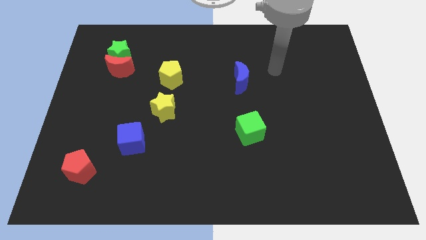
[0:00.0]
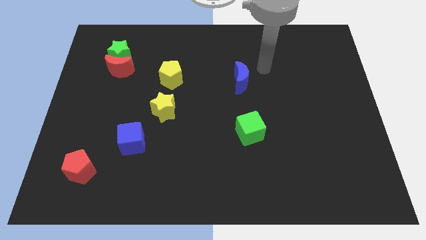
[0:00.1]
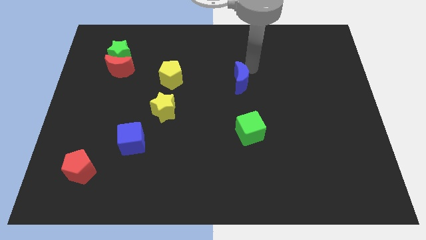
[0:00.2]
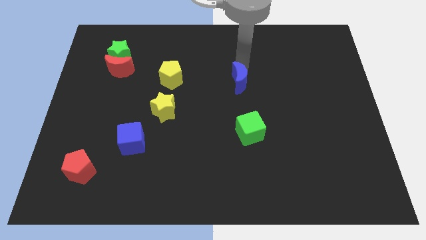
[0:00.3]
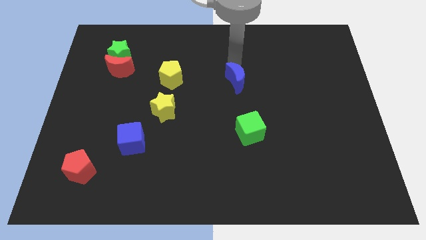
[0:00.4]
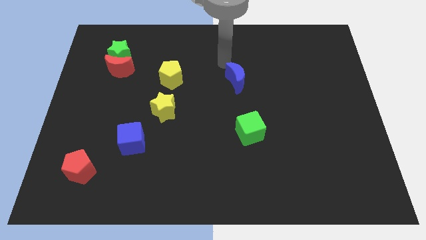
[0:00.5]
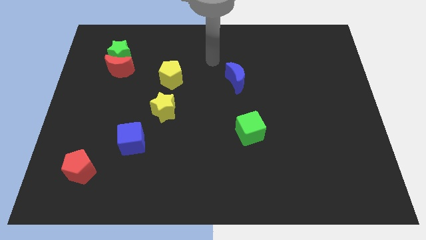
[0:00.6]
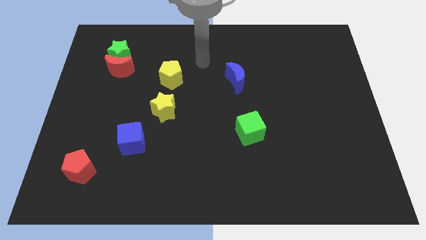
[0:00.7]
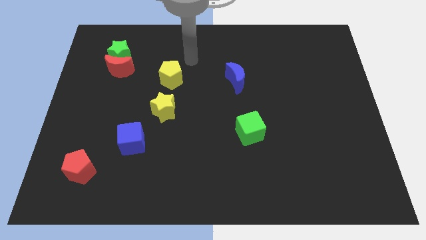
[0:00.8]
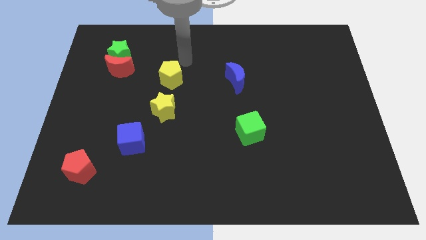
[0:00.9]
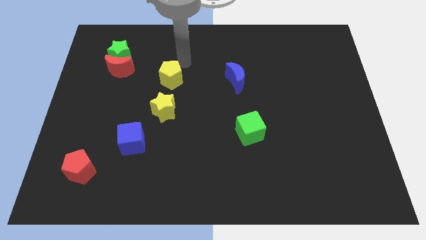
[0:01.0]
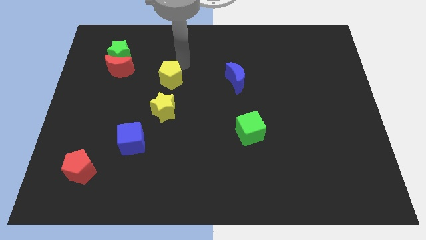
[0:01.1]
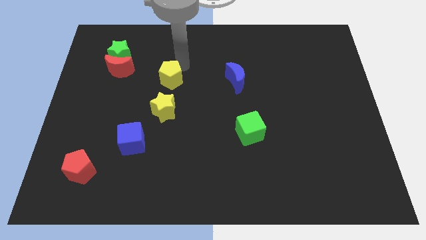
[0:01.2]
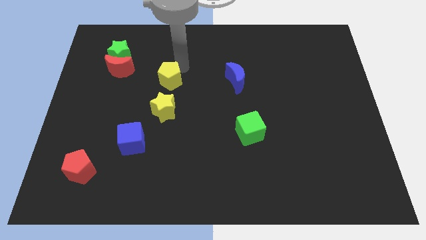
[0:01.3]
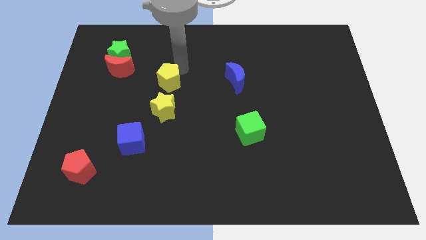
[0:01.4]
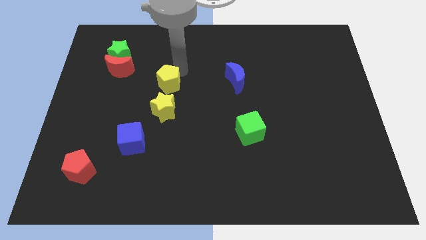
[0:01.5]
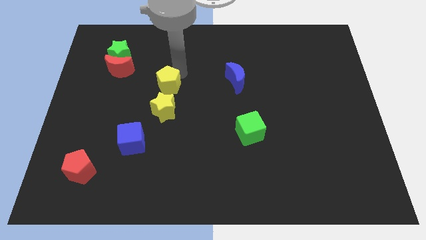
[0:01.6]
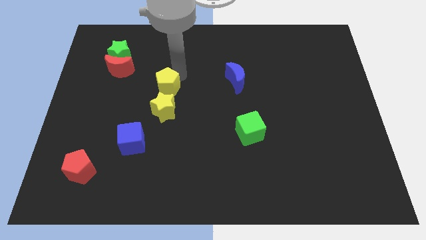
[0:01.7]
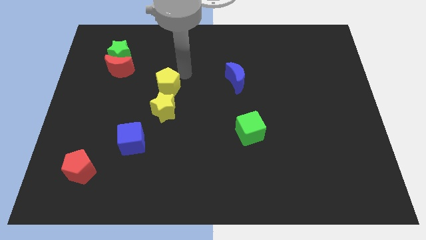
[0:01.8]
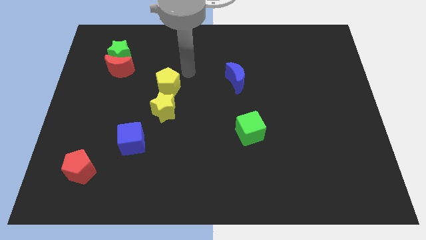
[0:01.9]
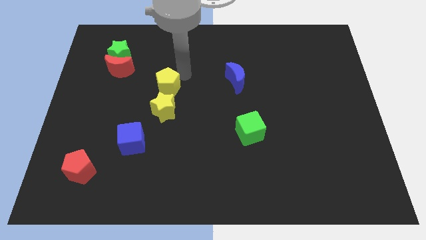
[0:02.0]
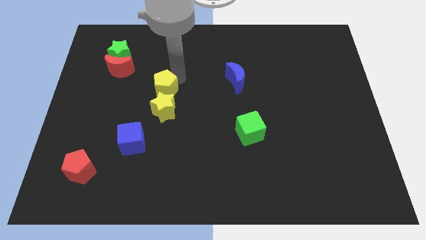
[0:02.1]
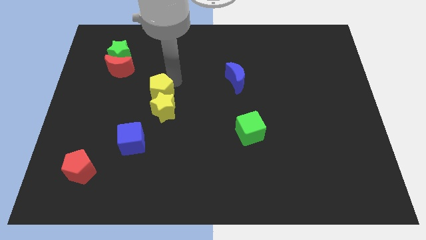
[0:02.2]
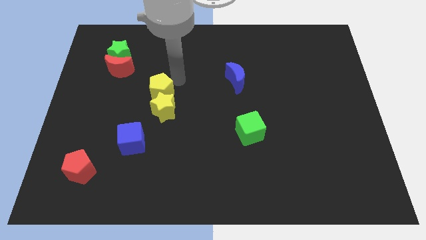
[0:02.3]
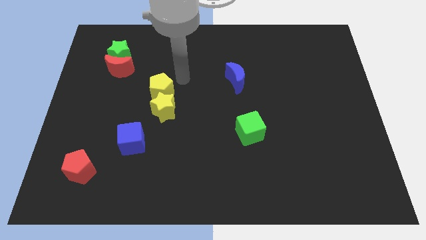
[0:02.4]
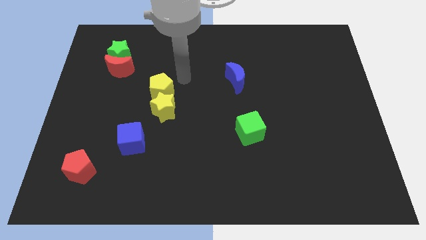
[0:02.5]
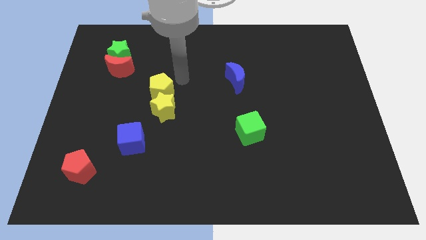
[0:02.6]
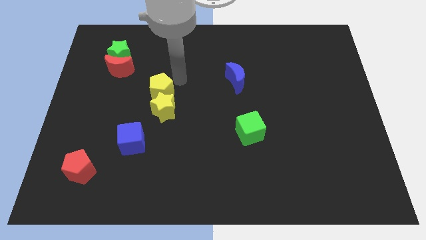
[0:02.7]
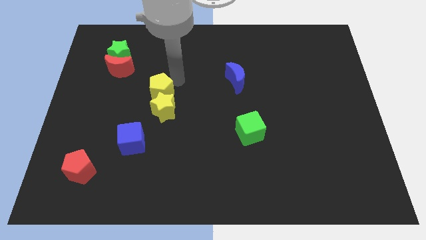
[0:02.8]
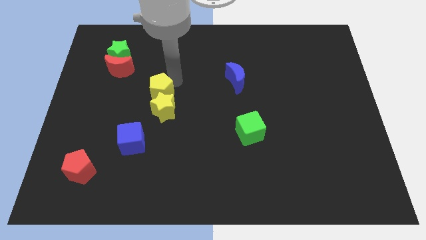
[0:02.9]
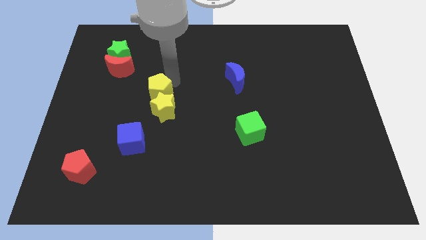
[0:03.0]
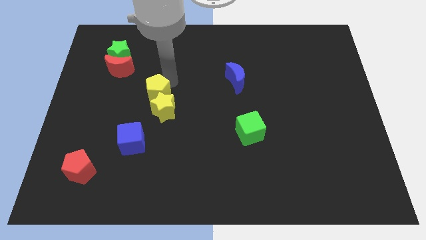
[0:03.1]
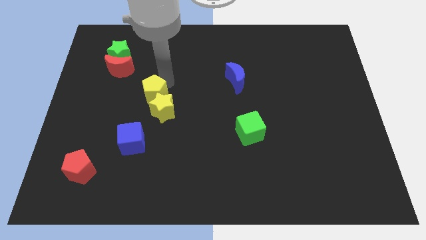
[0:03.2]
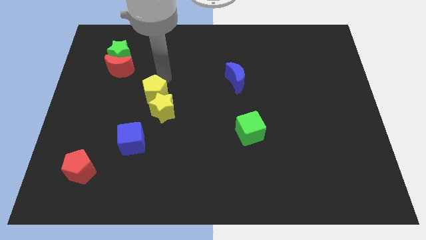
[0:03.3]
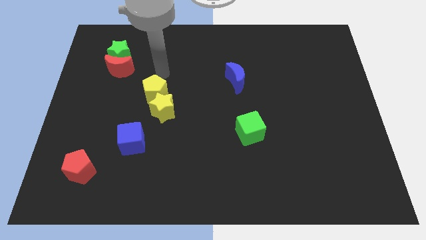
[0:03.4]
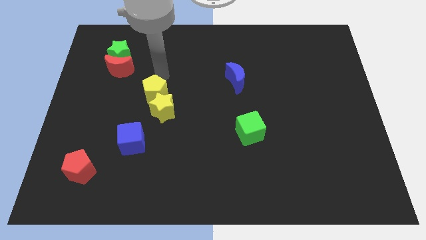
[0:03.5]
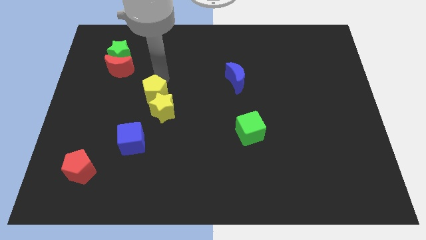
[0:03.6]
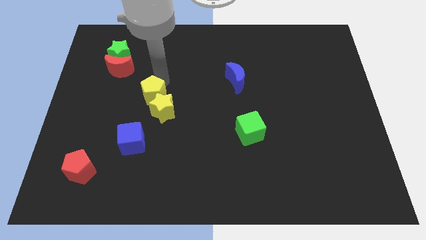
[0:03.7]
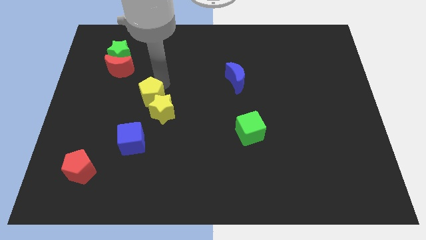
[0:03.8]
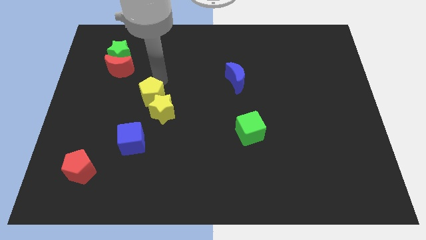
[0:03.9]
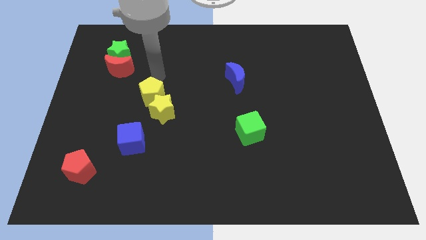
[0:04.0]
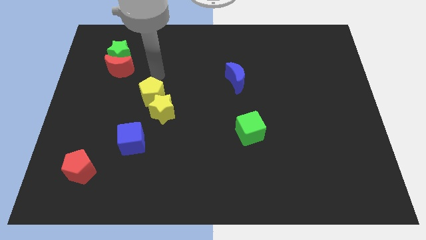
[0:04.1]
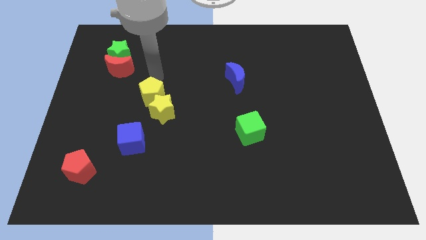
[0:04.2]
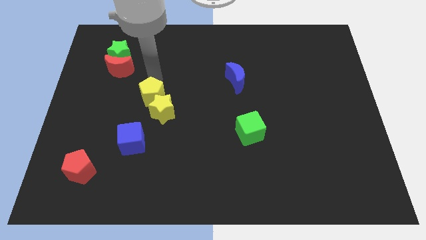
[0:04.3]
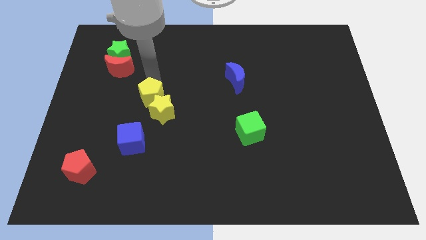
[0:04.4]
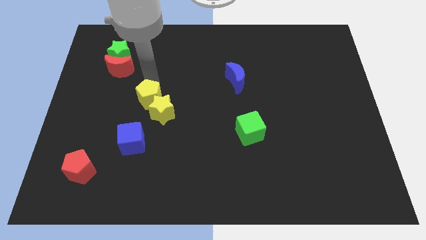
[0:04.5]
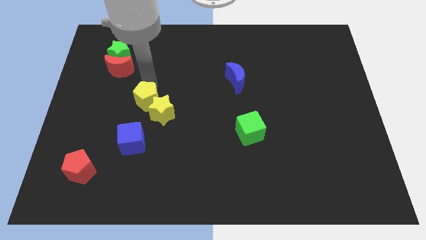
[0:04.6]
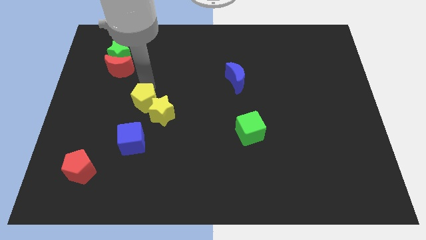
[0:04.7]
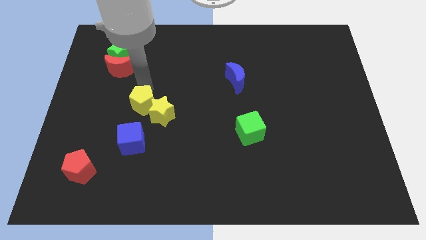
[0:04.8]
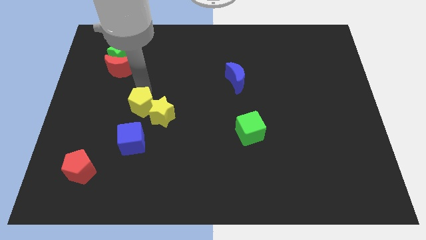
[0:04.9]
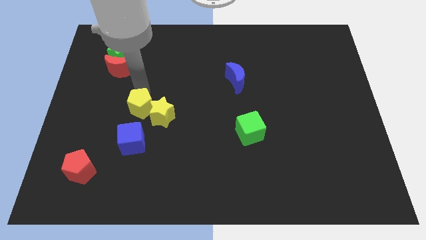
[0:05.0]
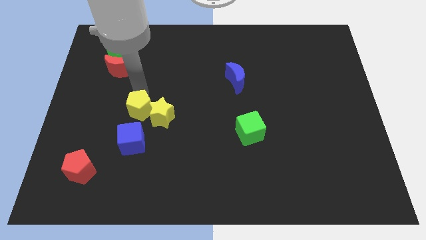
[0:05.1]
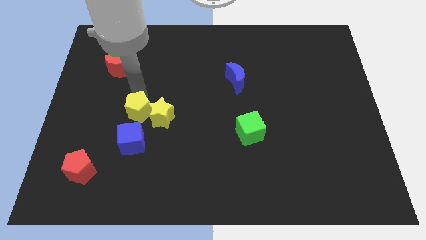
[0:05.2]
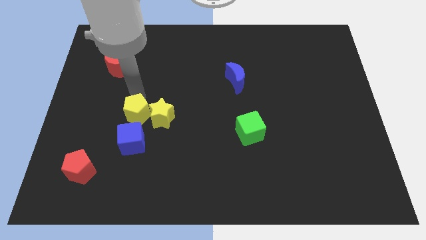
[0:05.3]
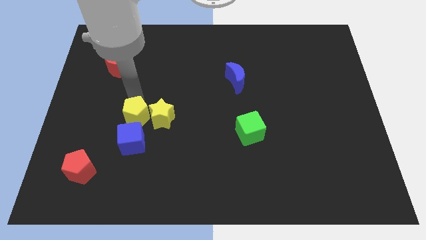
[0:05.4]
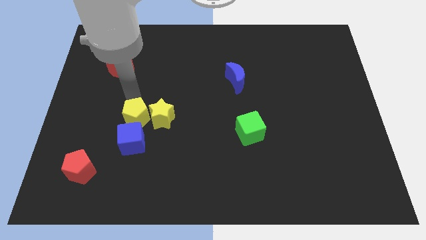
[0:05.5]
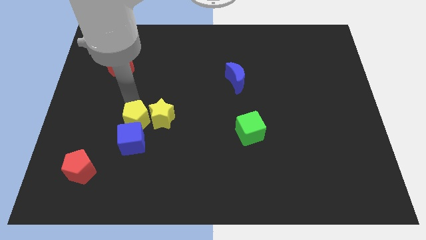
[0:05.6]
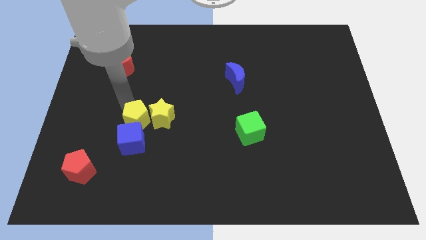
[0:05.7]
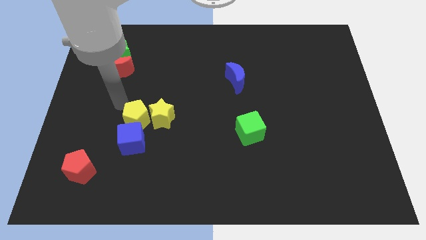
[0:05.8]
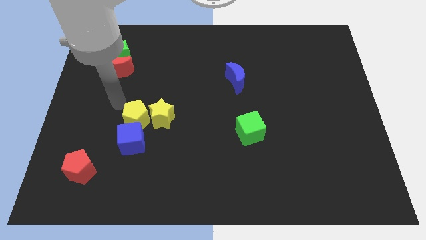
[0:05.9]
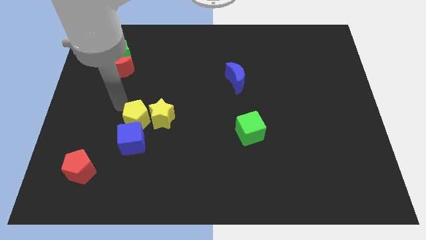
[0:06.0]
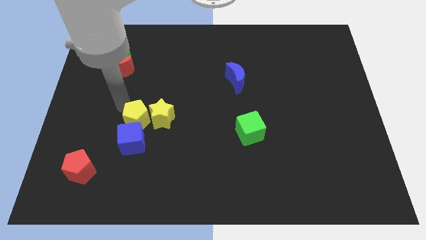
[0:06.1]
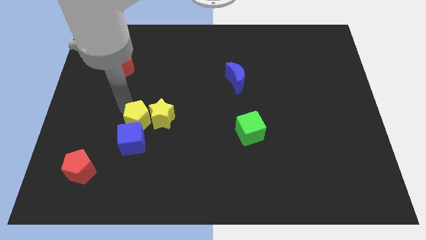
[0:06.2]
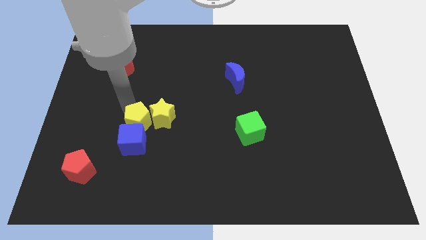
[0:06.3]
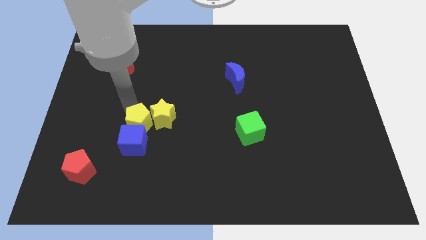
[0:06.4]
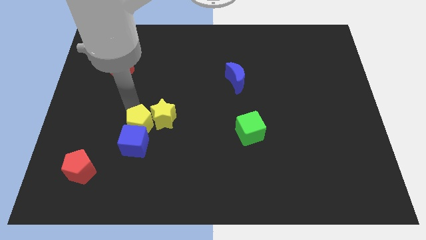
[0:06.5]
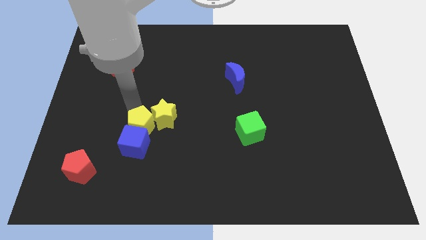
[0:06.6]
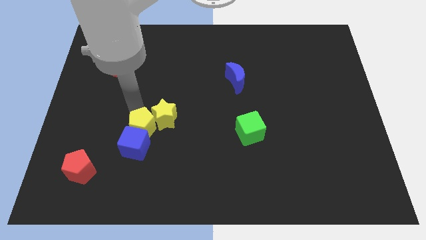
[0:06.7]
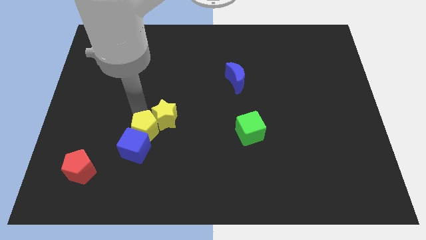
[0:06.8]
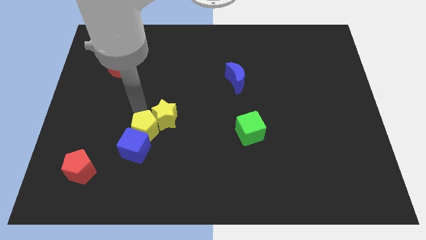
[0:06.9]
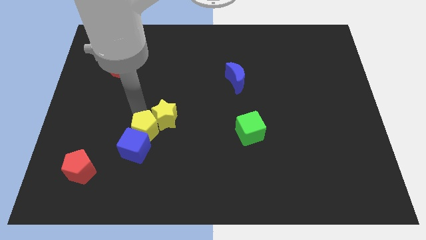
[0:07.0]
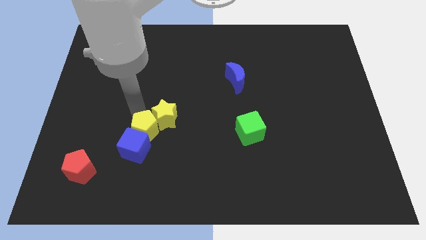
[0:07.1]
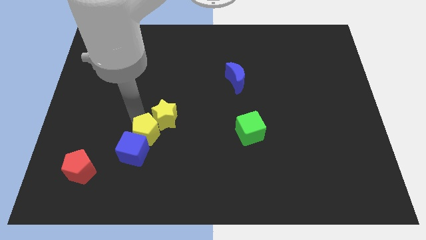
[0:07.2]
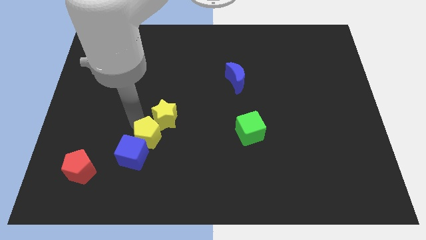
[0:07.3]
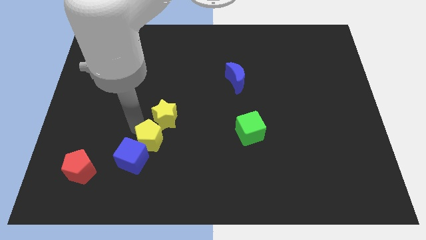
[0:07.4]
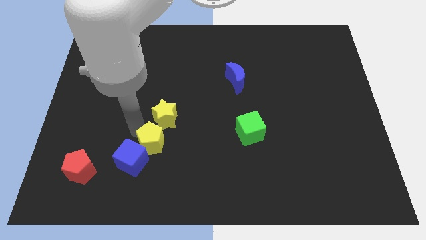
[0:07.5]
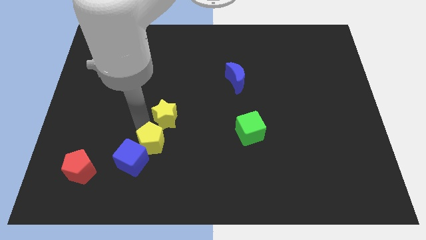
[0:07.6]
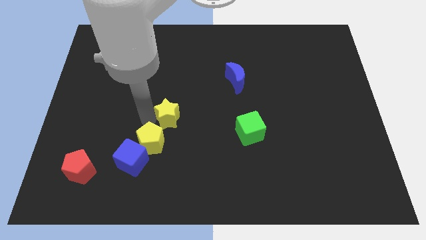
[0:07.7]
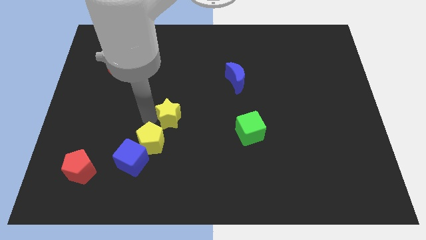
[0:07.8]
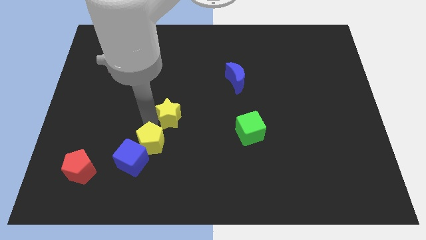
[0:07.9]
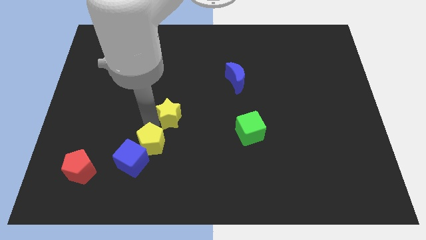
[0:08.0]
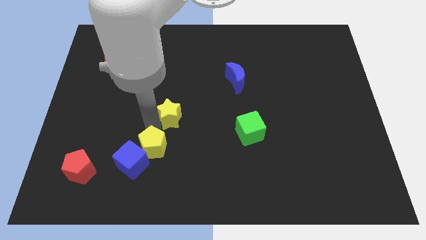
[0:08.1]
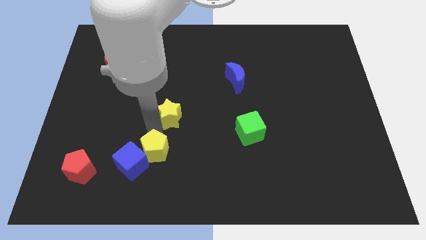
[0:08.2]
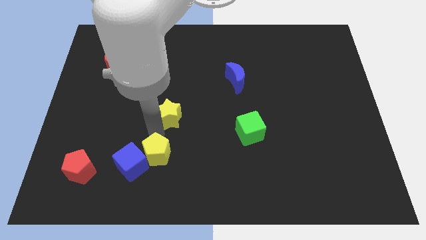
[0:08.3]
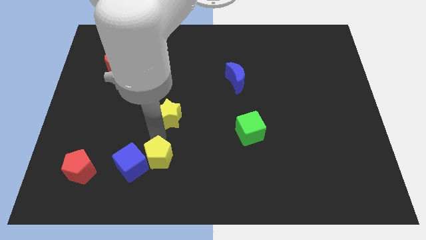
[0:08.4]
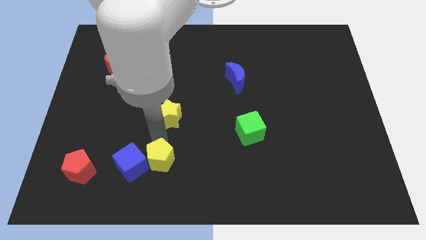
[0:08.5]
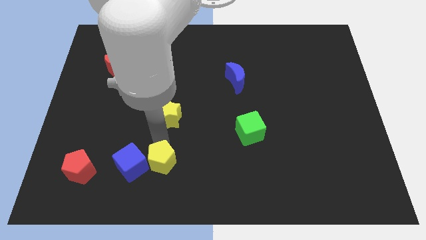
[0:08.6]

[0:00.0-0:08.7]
slide the yellow pentagon to the bottom right of the blue cube
